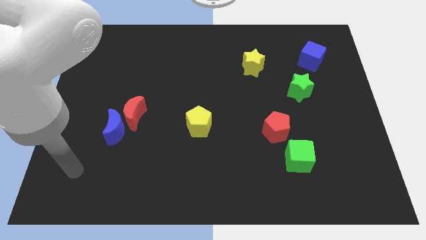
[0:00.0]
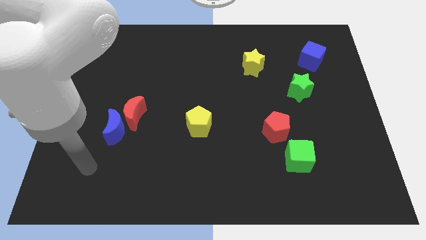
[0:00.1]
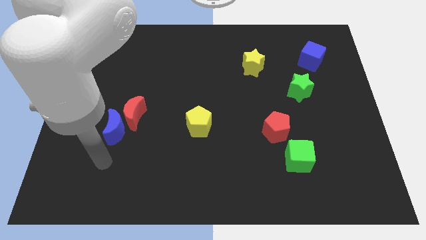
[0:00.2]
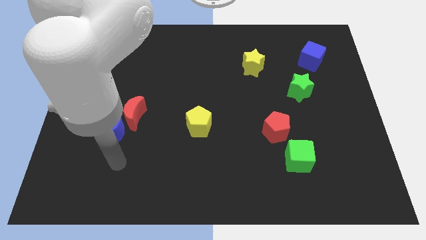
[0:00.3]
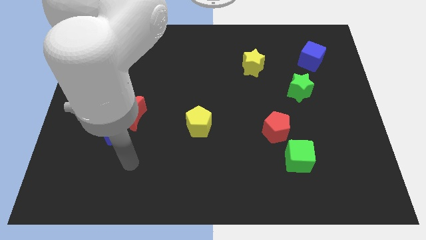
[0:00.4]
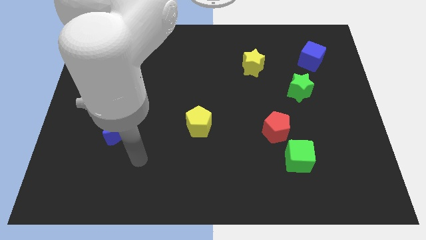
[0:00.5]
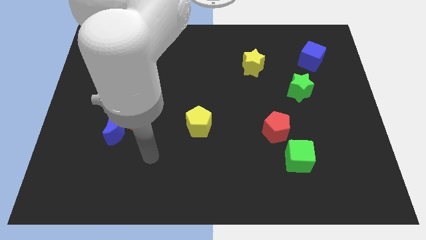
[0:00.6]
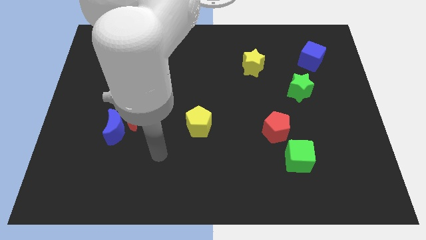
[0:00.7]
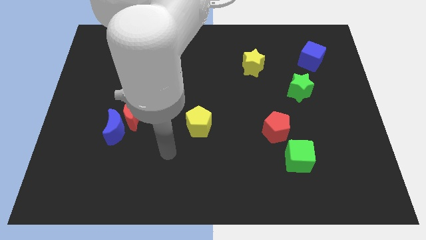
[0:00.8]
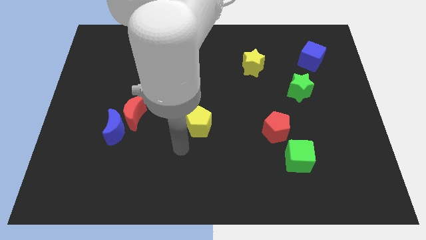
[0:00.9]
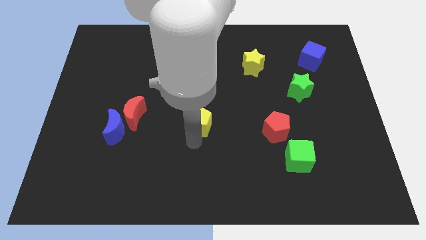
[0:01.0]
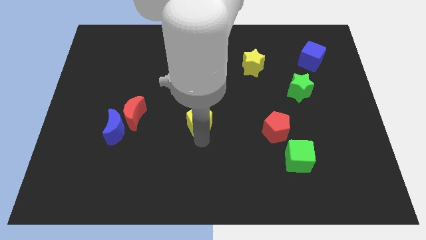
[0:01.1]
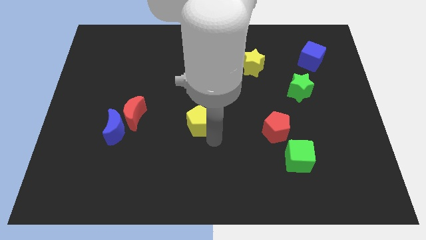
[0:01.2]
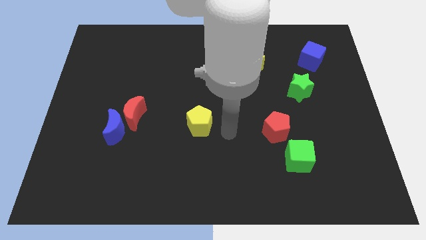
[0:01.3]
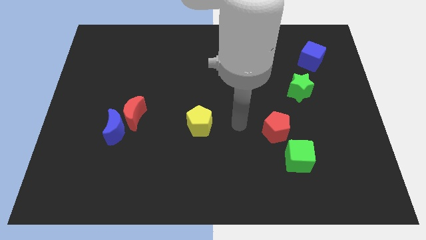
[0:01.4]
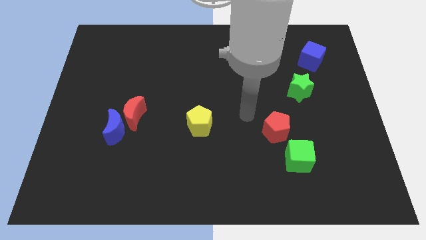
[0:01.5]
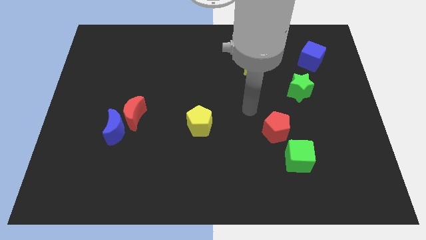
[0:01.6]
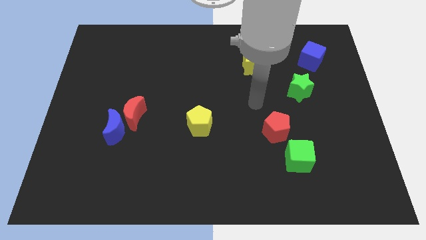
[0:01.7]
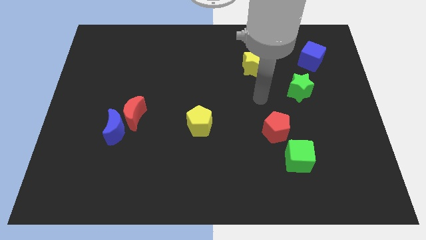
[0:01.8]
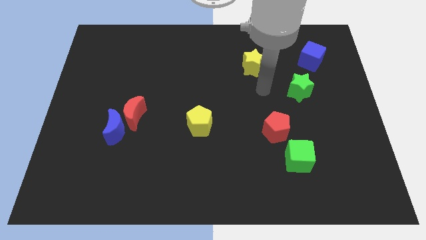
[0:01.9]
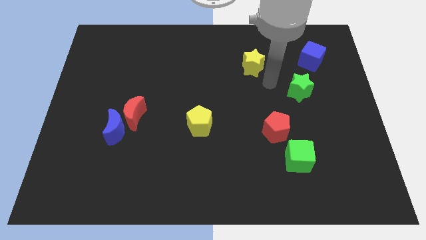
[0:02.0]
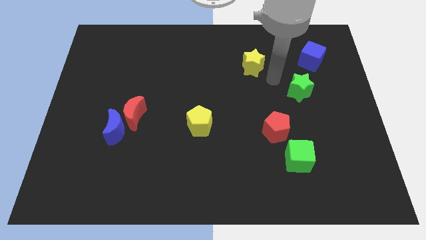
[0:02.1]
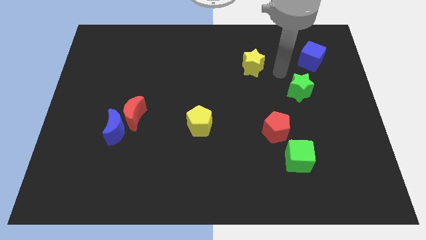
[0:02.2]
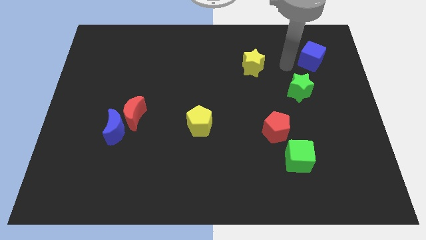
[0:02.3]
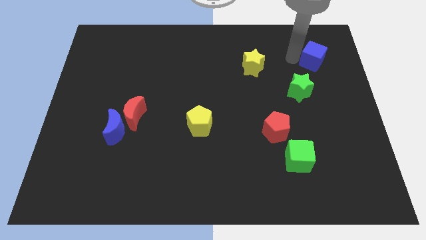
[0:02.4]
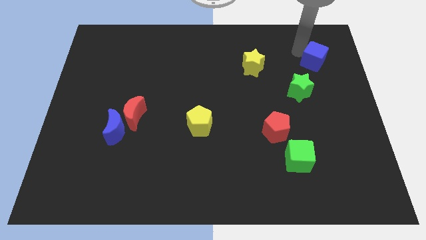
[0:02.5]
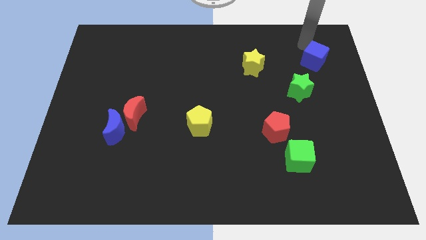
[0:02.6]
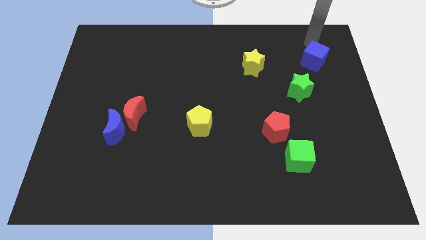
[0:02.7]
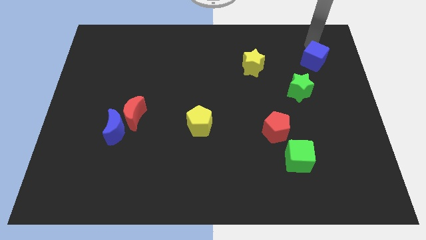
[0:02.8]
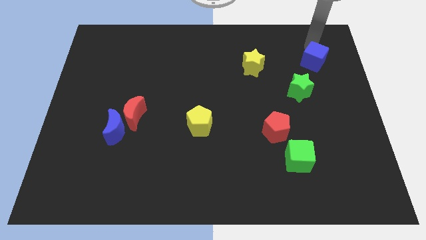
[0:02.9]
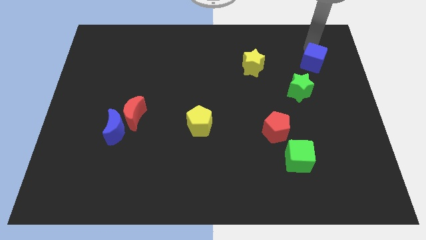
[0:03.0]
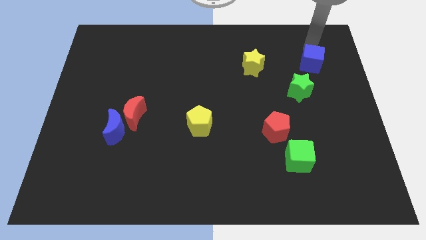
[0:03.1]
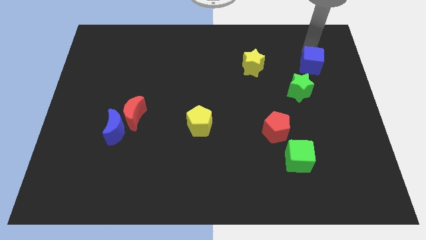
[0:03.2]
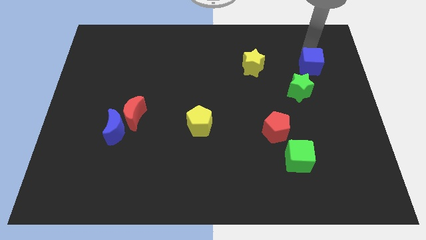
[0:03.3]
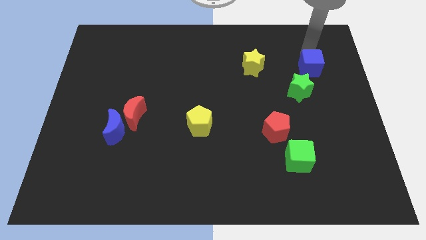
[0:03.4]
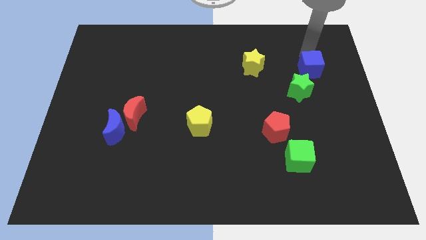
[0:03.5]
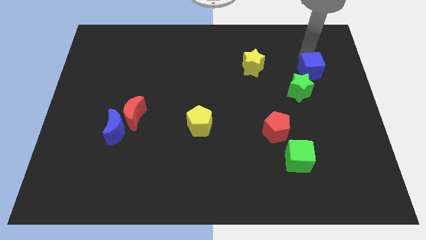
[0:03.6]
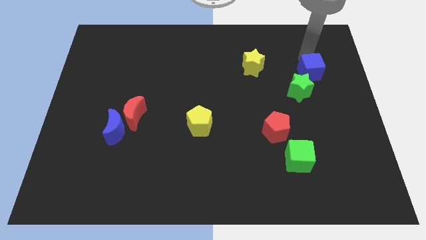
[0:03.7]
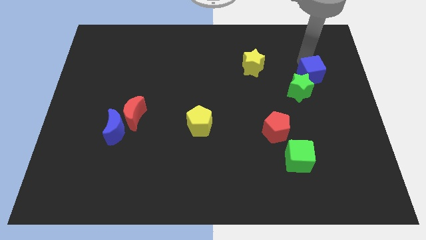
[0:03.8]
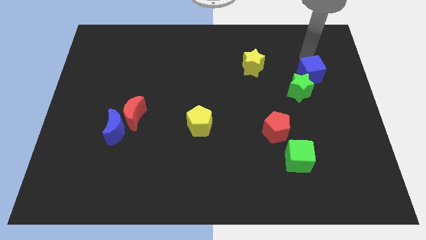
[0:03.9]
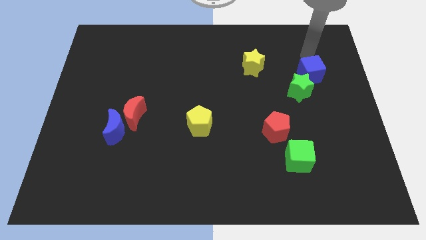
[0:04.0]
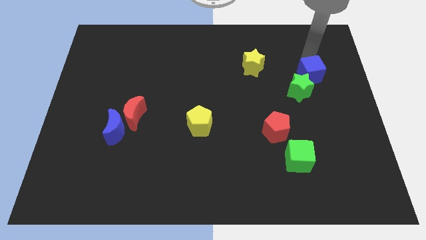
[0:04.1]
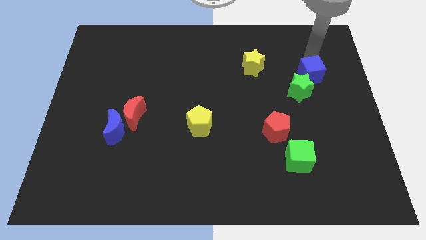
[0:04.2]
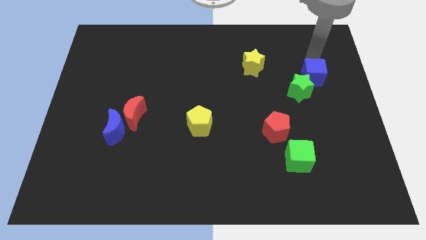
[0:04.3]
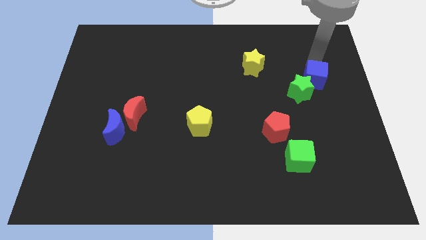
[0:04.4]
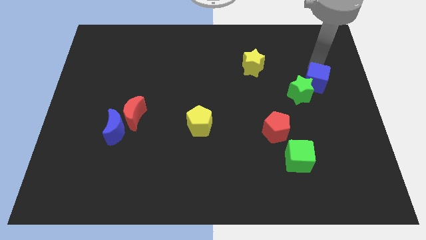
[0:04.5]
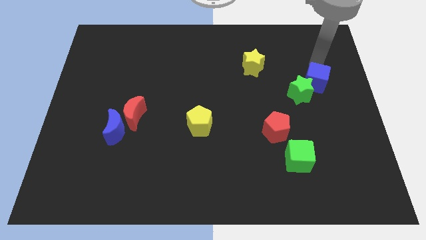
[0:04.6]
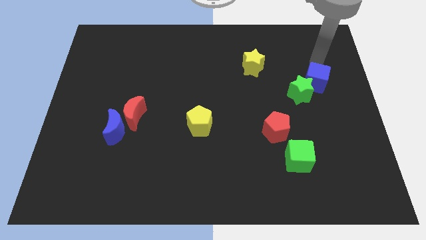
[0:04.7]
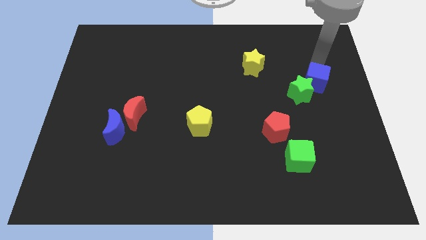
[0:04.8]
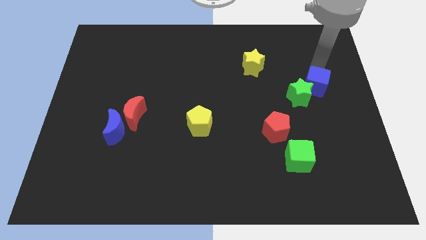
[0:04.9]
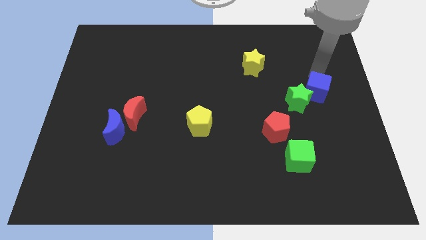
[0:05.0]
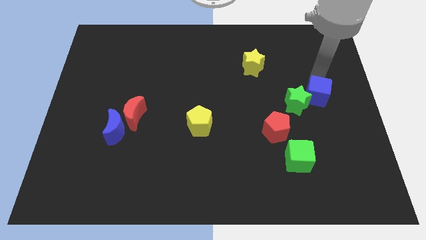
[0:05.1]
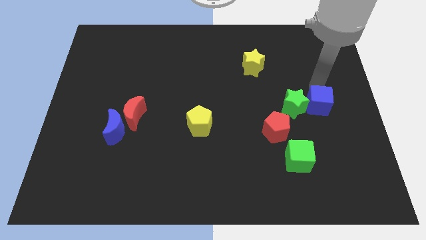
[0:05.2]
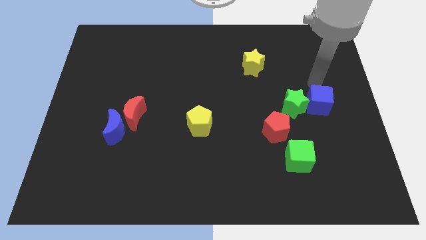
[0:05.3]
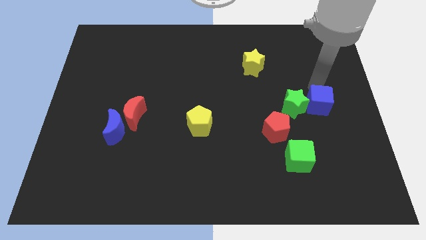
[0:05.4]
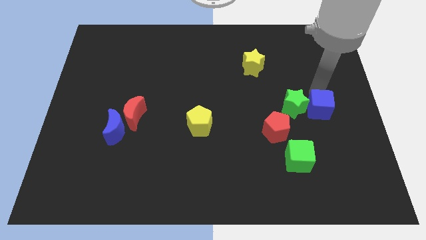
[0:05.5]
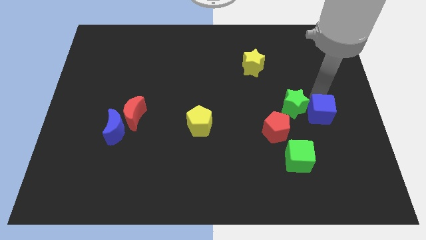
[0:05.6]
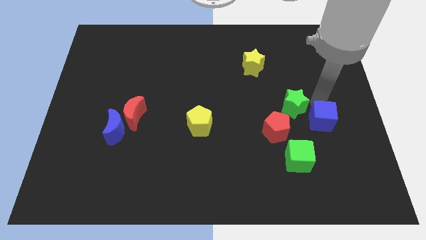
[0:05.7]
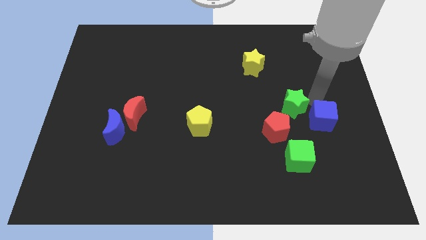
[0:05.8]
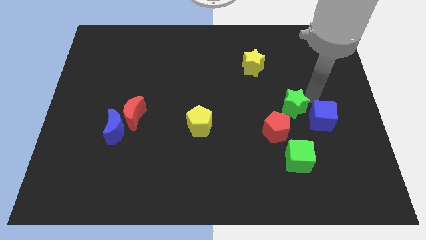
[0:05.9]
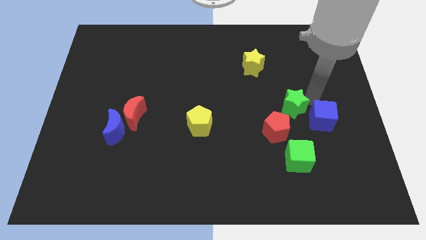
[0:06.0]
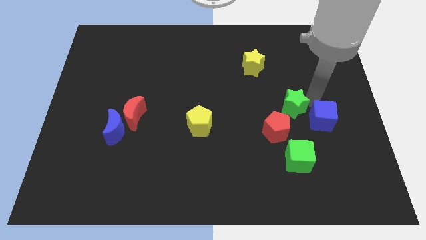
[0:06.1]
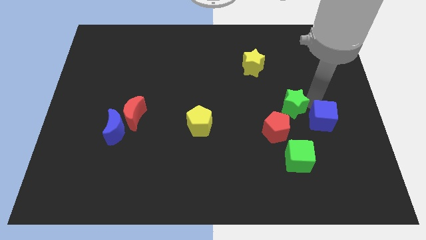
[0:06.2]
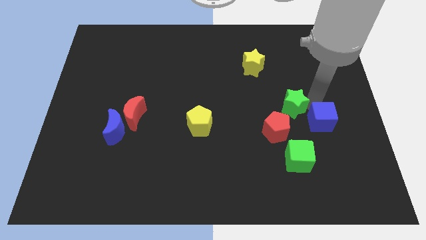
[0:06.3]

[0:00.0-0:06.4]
move the blue cube downwards

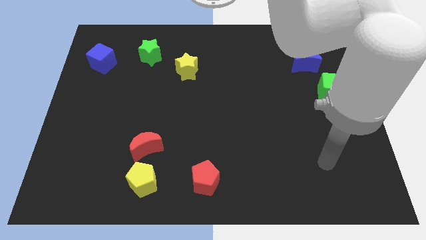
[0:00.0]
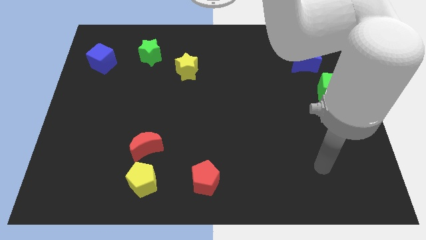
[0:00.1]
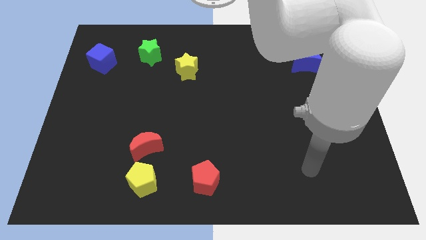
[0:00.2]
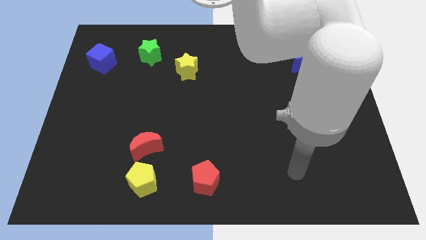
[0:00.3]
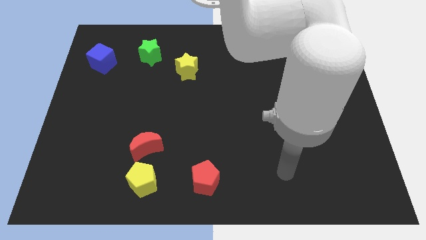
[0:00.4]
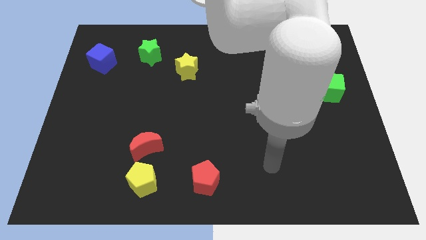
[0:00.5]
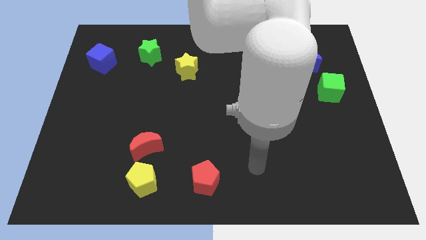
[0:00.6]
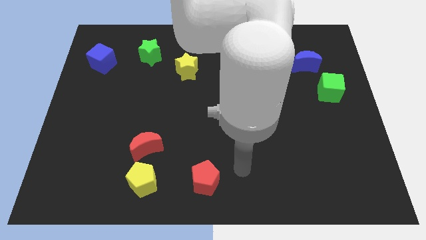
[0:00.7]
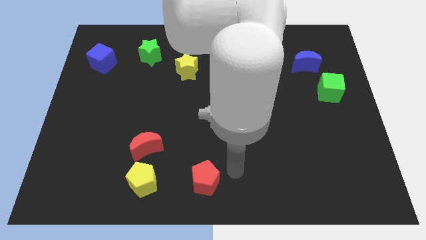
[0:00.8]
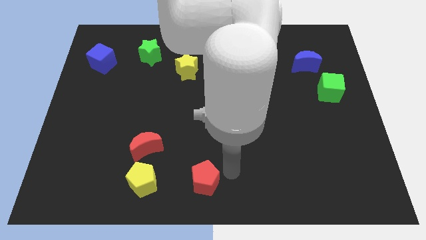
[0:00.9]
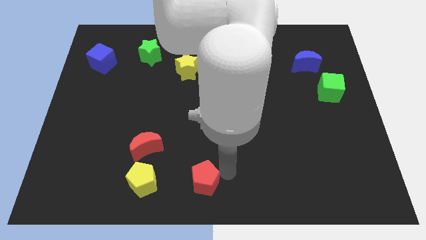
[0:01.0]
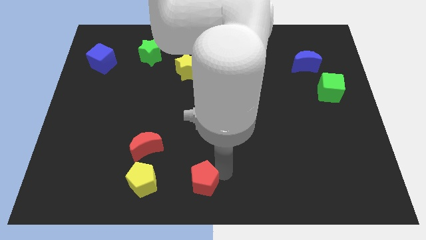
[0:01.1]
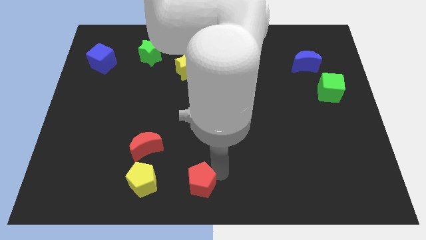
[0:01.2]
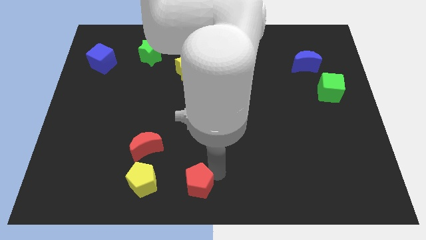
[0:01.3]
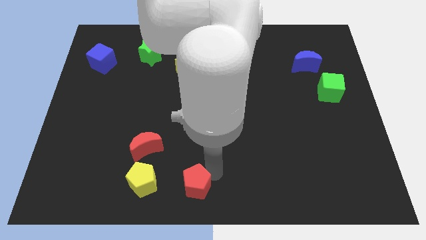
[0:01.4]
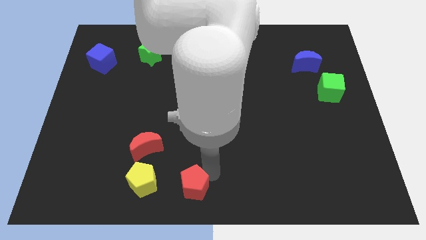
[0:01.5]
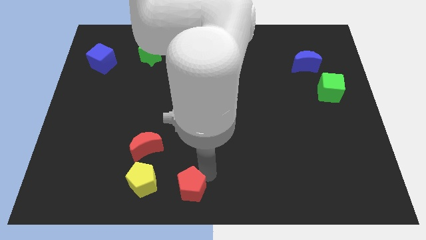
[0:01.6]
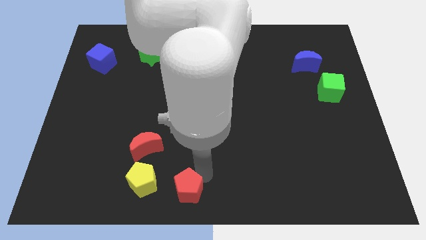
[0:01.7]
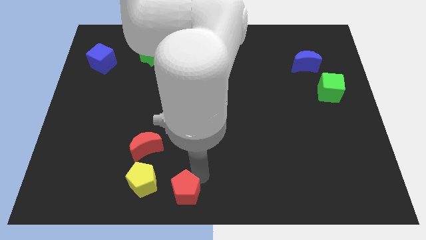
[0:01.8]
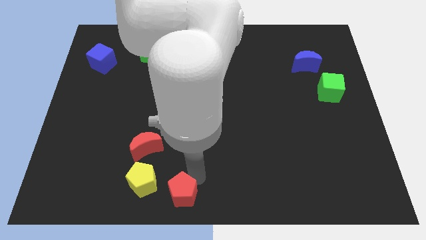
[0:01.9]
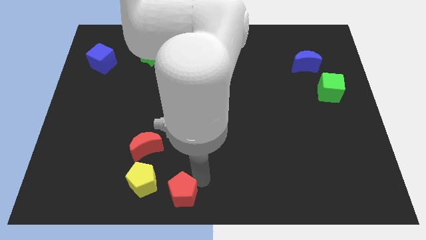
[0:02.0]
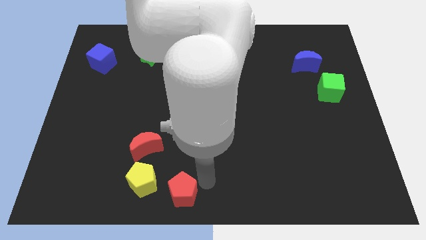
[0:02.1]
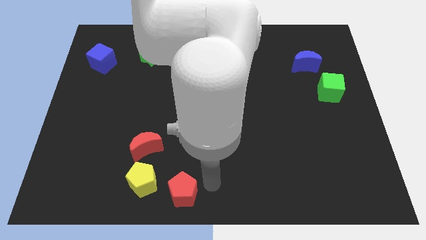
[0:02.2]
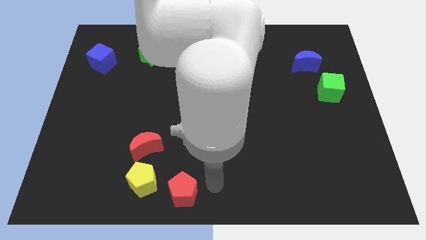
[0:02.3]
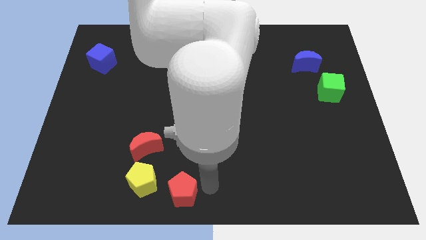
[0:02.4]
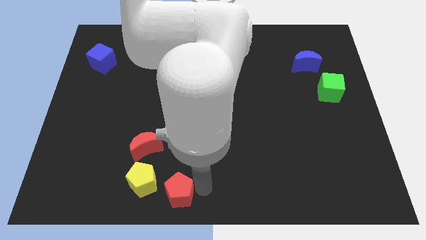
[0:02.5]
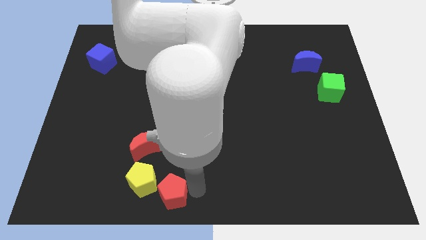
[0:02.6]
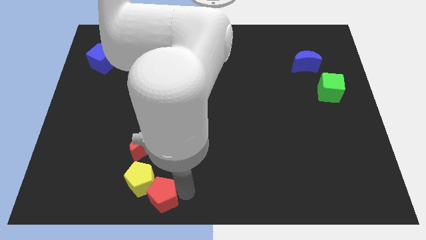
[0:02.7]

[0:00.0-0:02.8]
move the red pentagon somewhat to the left
